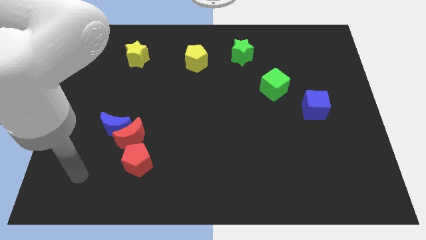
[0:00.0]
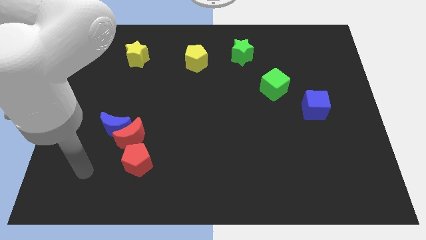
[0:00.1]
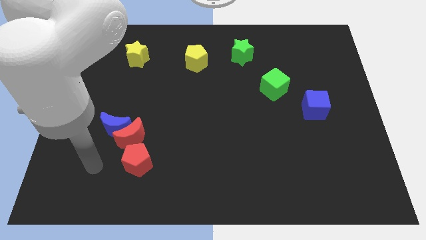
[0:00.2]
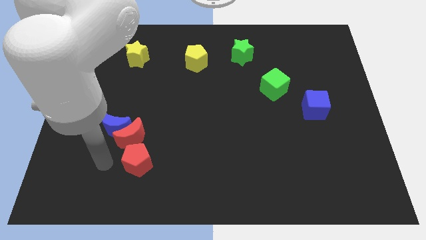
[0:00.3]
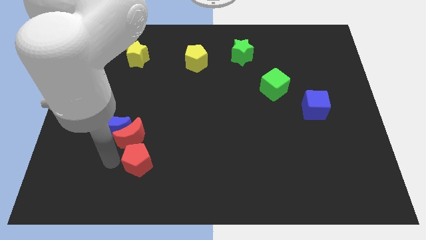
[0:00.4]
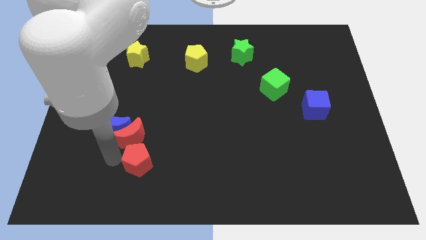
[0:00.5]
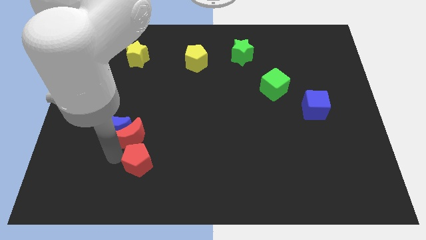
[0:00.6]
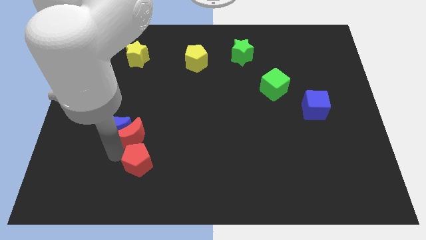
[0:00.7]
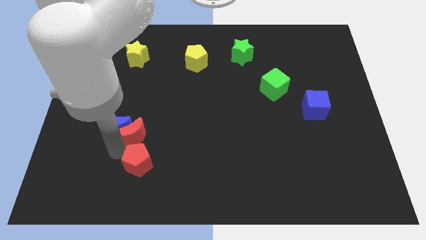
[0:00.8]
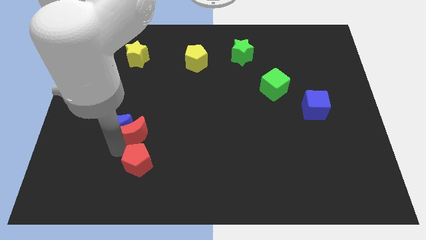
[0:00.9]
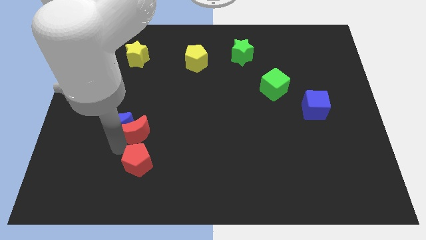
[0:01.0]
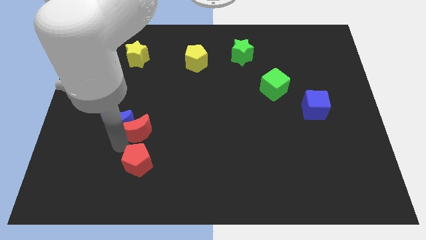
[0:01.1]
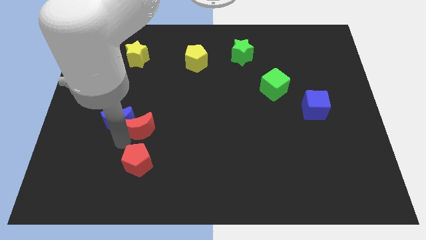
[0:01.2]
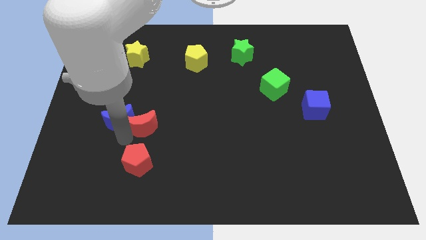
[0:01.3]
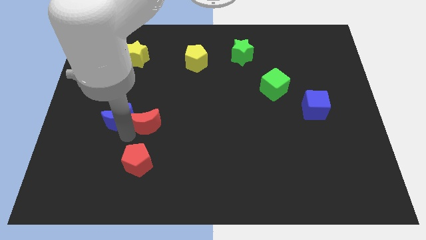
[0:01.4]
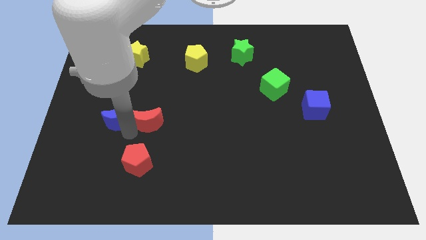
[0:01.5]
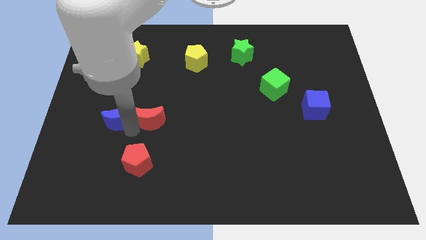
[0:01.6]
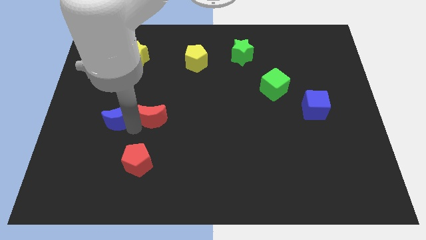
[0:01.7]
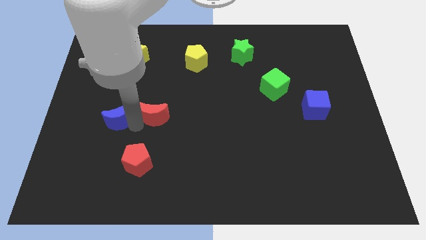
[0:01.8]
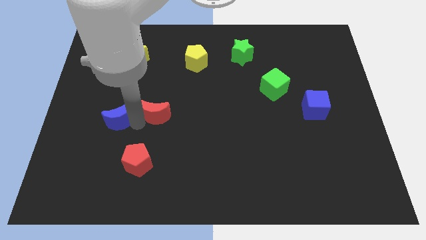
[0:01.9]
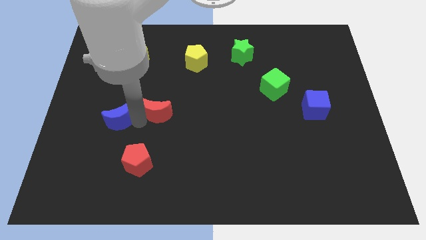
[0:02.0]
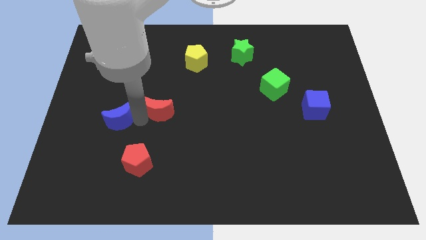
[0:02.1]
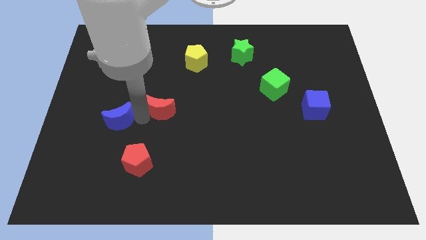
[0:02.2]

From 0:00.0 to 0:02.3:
move the red moon away from the blue moon and red pentagon

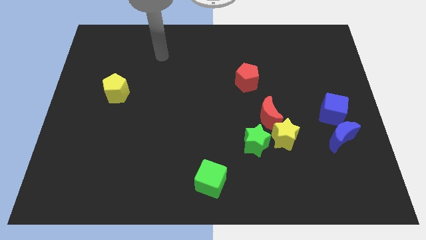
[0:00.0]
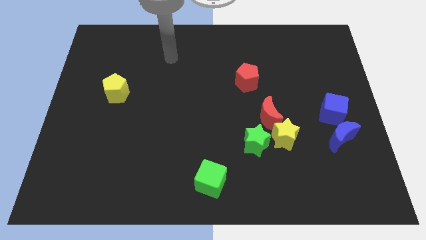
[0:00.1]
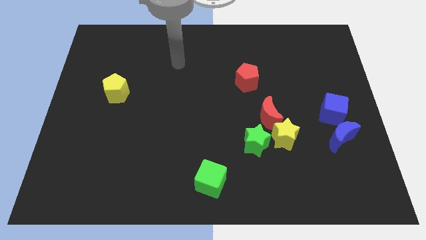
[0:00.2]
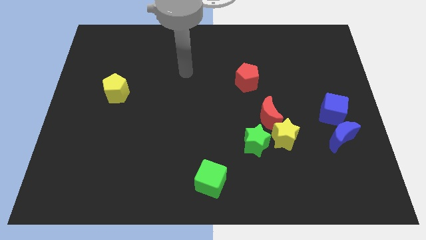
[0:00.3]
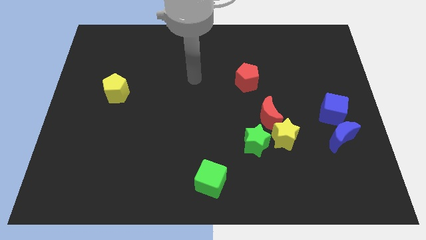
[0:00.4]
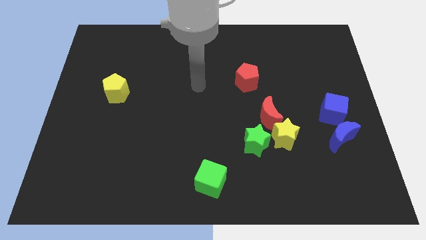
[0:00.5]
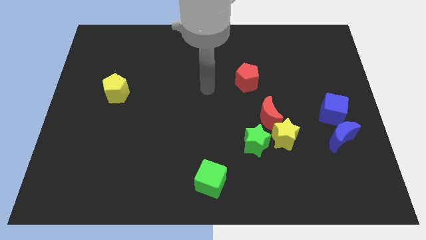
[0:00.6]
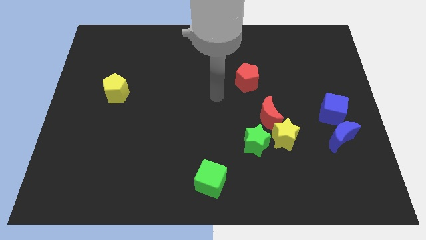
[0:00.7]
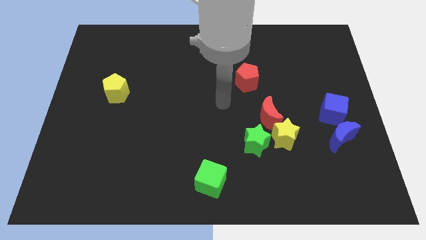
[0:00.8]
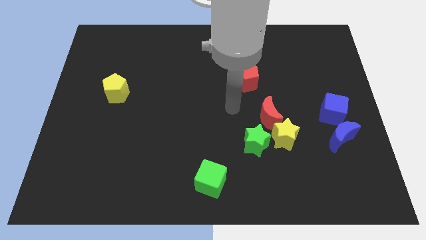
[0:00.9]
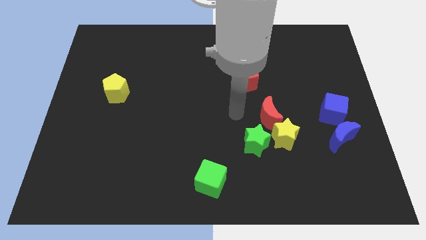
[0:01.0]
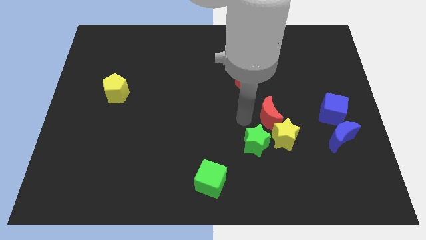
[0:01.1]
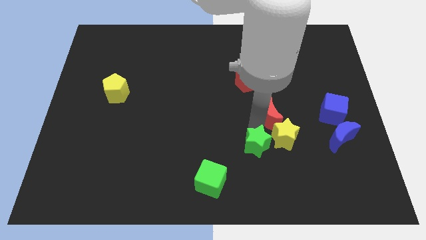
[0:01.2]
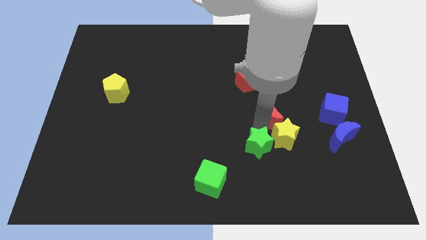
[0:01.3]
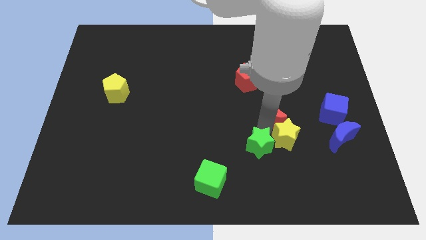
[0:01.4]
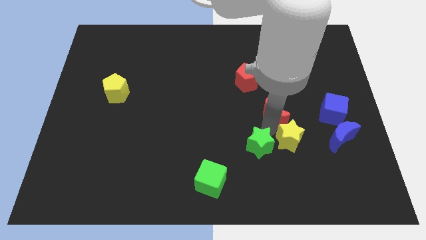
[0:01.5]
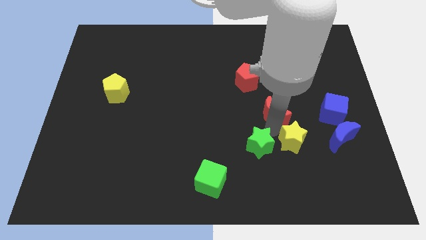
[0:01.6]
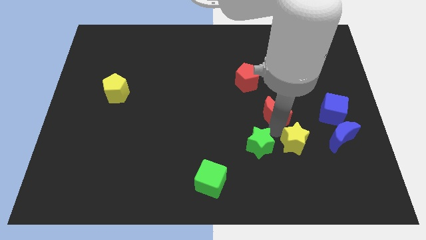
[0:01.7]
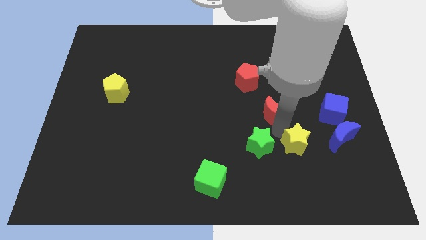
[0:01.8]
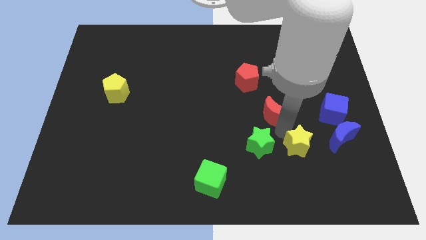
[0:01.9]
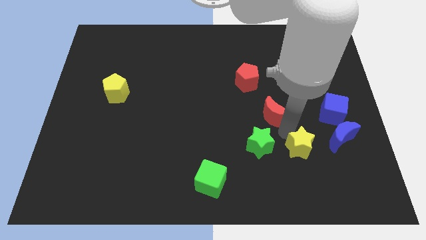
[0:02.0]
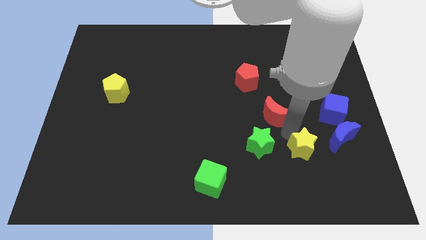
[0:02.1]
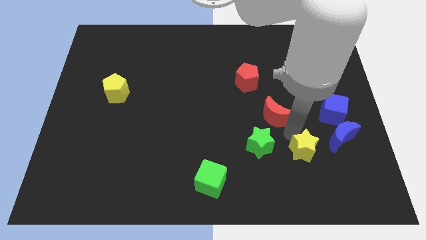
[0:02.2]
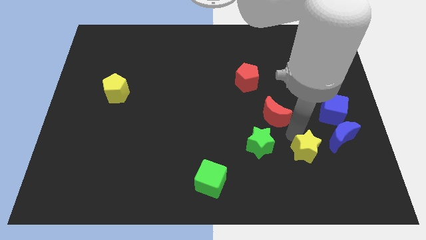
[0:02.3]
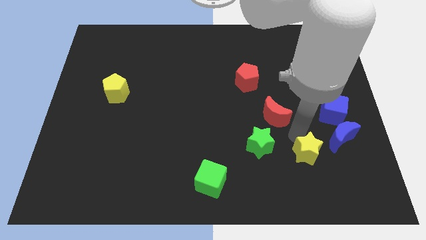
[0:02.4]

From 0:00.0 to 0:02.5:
pull the yellow star apart from the red moon and green star

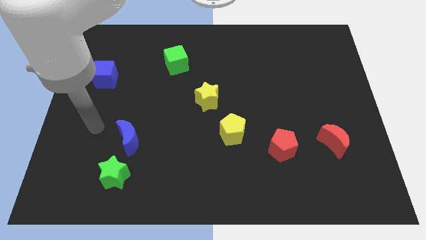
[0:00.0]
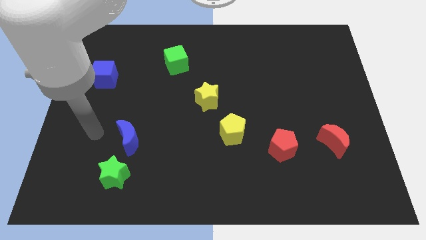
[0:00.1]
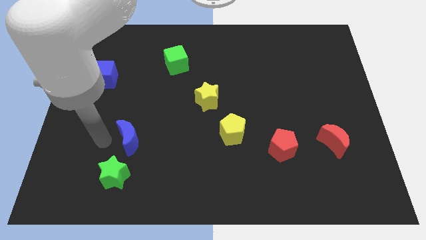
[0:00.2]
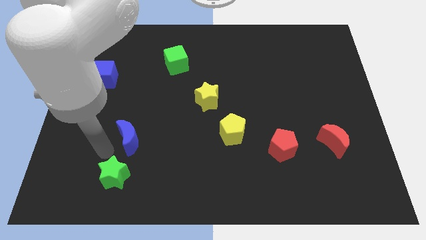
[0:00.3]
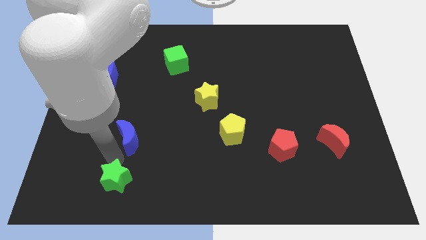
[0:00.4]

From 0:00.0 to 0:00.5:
pull the blue moon apart from the green star

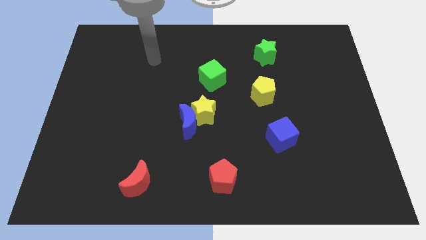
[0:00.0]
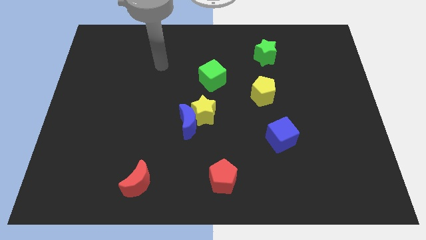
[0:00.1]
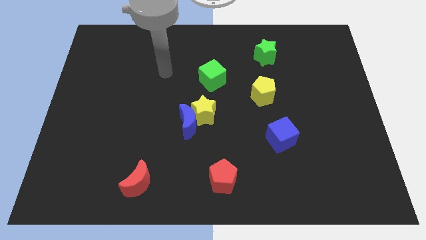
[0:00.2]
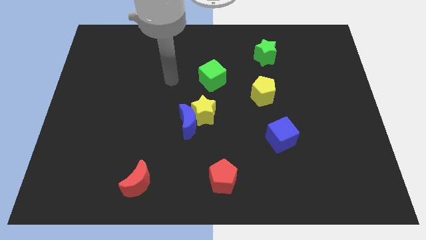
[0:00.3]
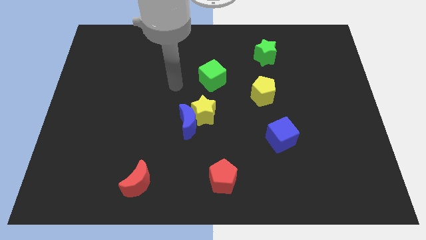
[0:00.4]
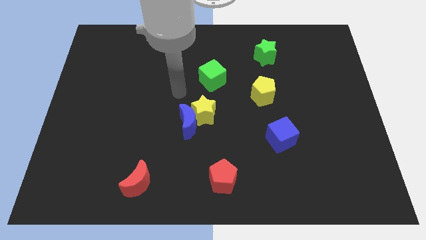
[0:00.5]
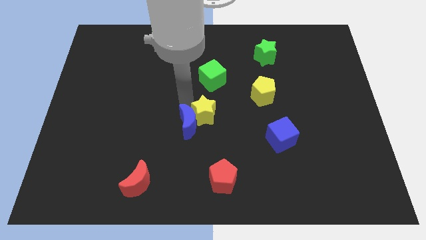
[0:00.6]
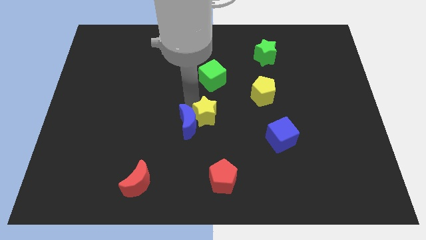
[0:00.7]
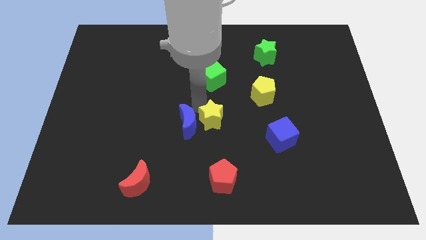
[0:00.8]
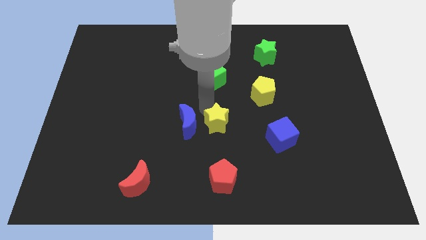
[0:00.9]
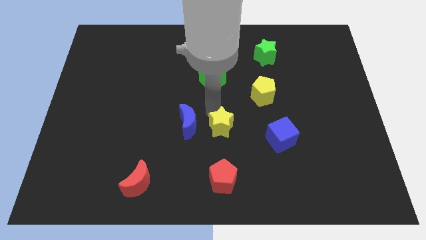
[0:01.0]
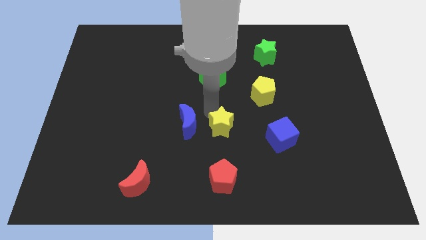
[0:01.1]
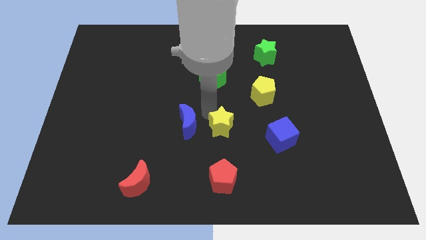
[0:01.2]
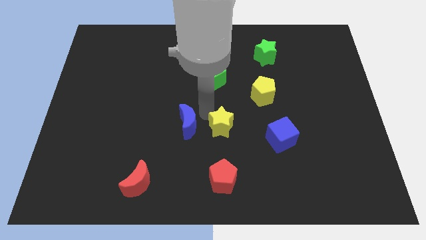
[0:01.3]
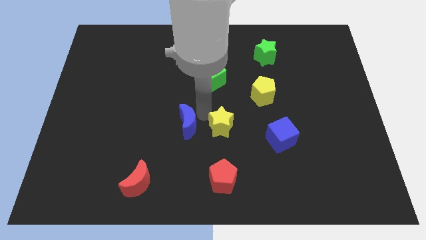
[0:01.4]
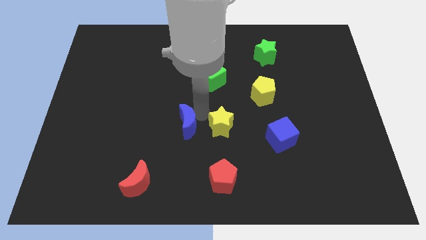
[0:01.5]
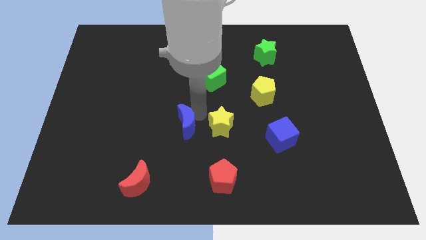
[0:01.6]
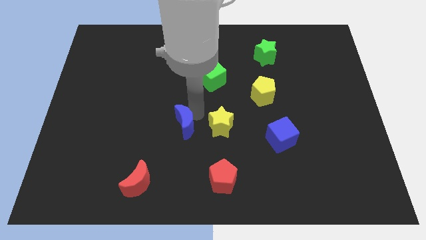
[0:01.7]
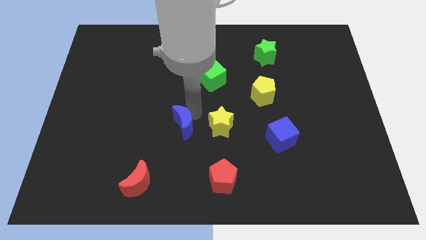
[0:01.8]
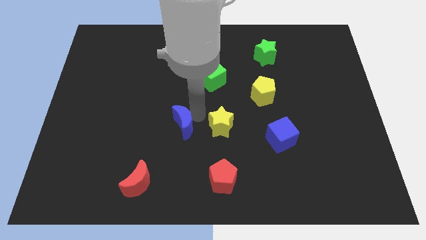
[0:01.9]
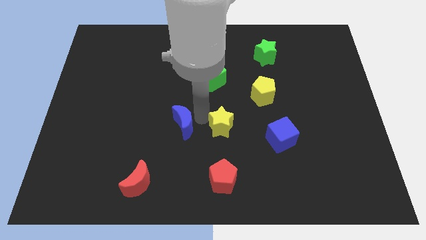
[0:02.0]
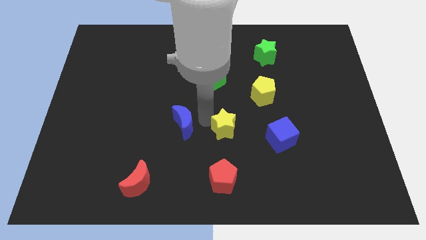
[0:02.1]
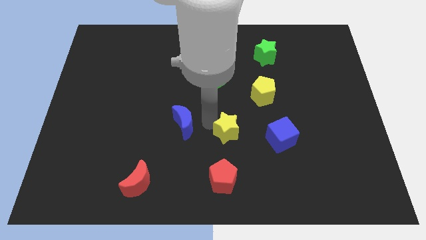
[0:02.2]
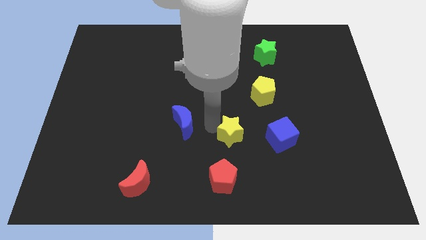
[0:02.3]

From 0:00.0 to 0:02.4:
move the blue moon away from the yellow star

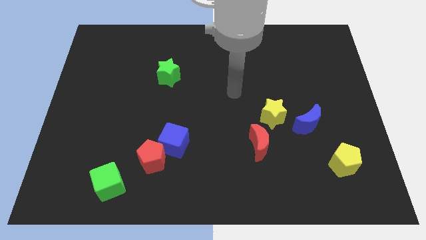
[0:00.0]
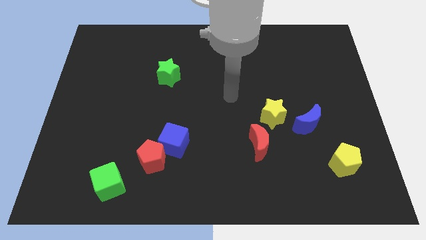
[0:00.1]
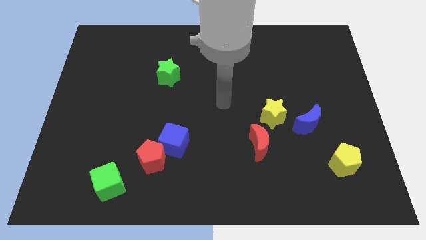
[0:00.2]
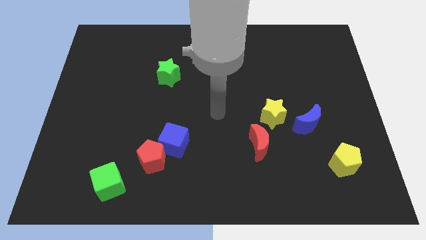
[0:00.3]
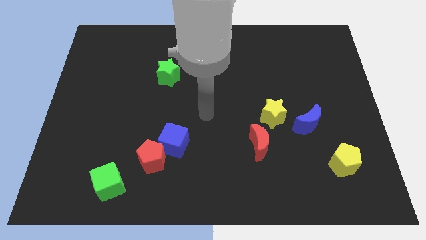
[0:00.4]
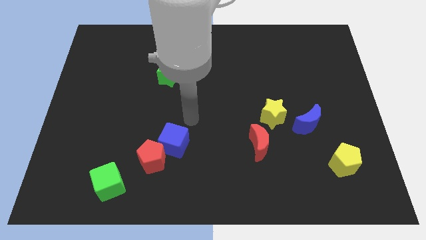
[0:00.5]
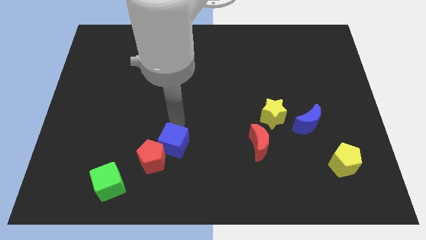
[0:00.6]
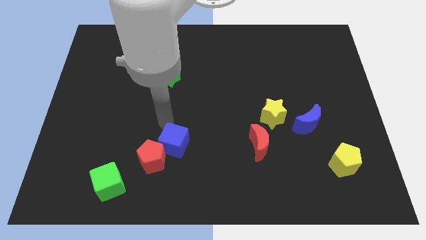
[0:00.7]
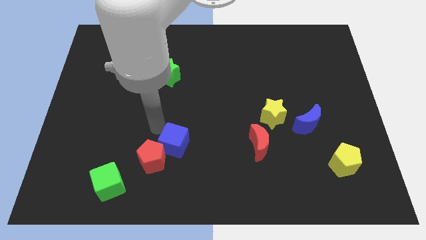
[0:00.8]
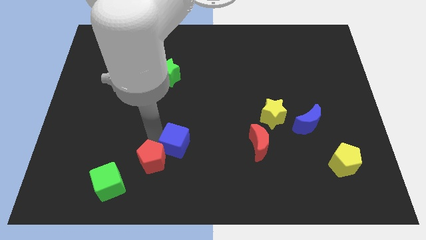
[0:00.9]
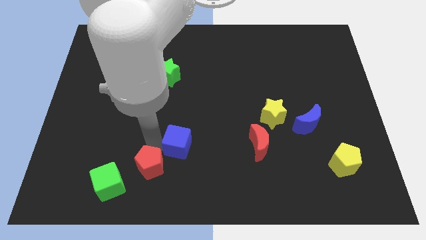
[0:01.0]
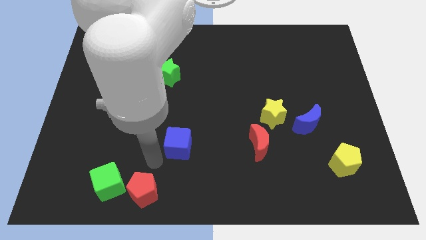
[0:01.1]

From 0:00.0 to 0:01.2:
separate the blue cube from the red pentagon

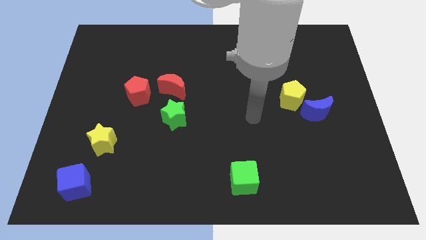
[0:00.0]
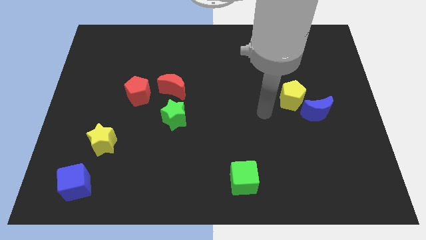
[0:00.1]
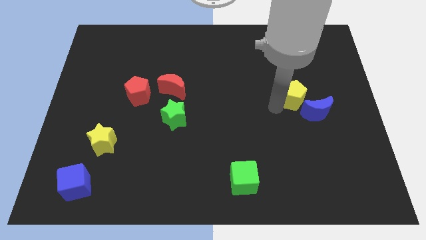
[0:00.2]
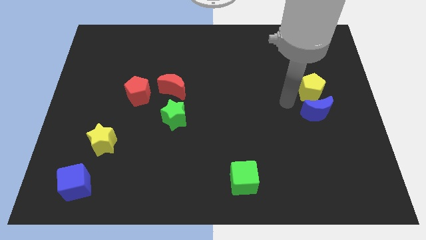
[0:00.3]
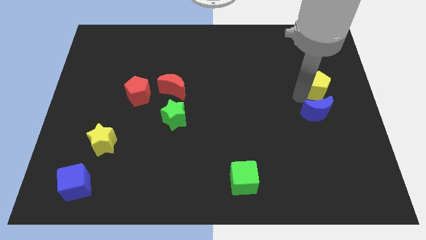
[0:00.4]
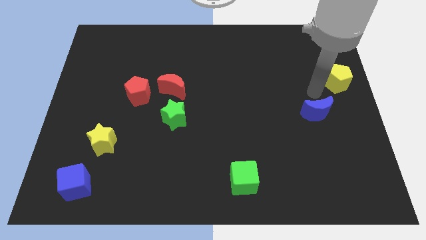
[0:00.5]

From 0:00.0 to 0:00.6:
move the blue moon away from the yellow pentagon
